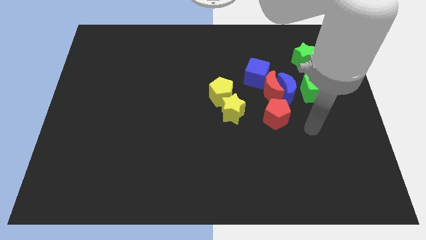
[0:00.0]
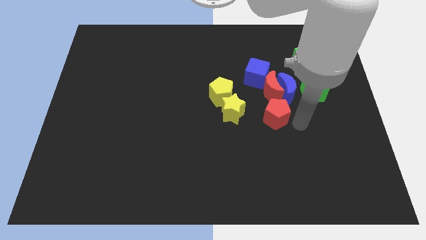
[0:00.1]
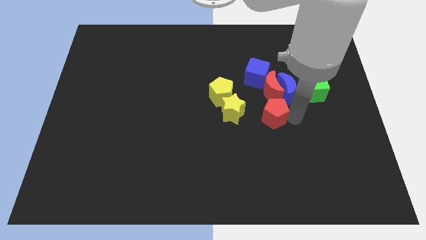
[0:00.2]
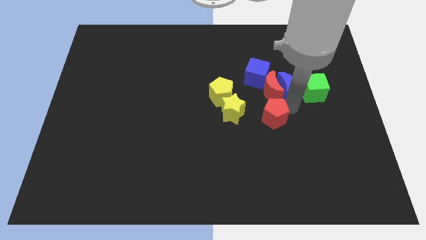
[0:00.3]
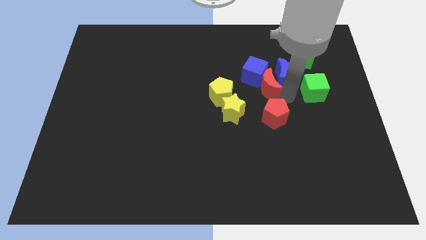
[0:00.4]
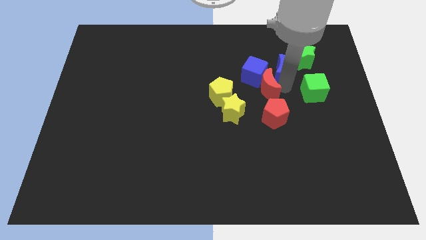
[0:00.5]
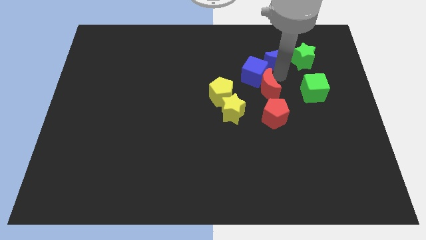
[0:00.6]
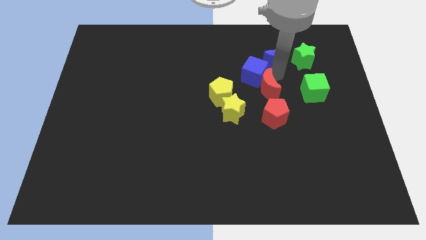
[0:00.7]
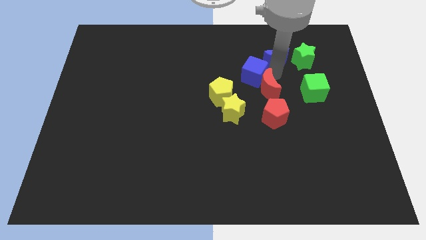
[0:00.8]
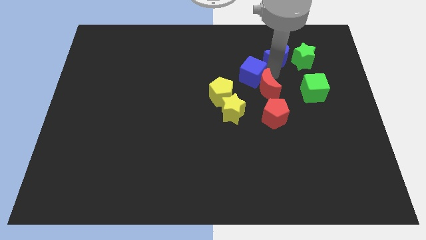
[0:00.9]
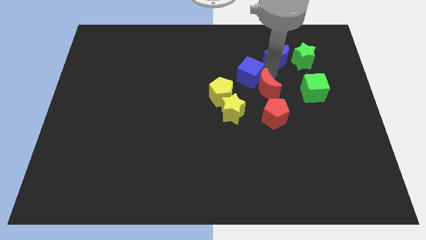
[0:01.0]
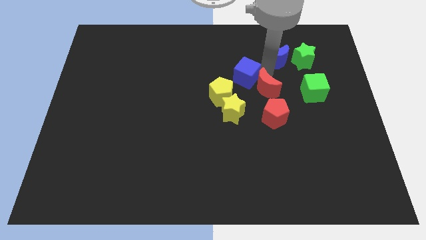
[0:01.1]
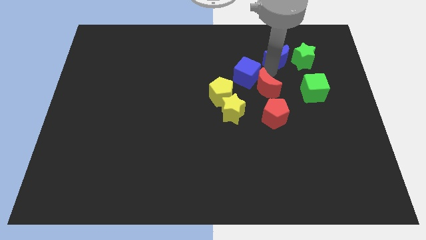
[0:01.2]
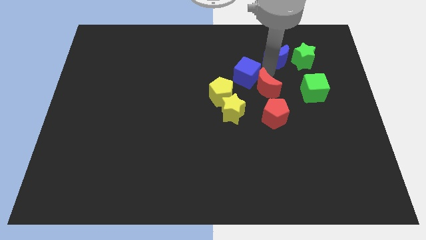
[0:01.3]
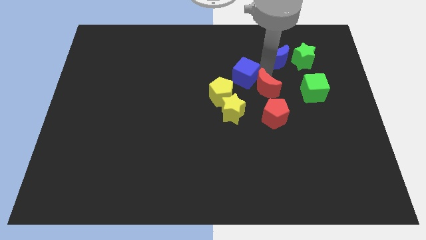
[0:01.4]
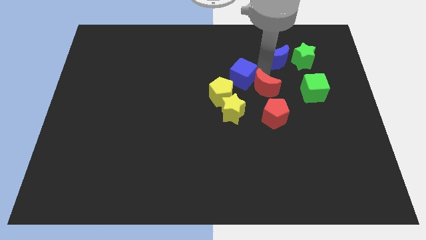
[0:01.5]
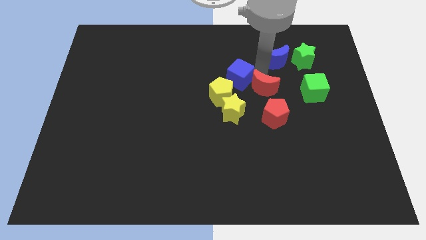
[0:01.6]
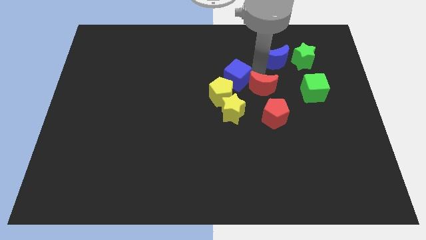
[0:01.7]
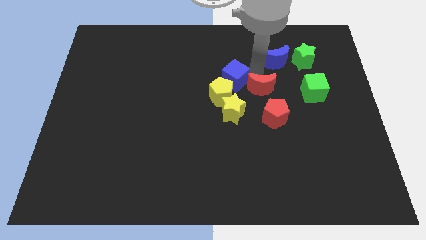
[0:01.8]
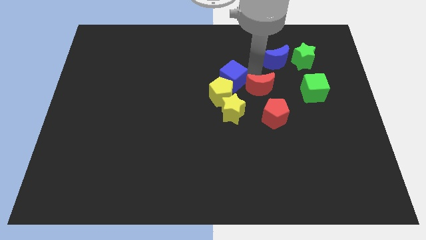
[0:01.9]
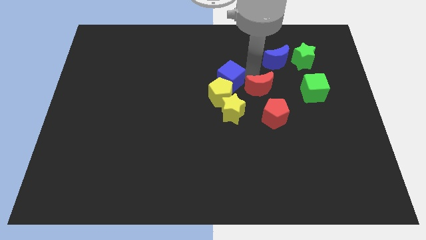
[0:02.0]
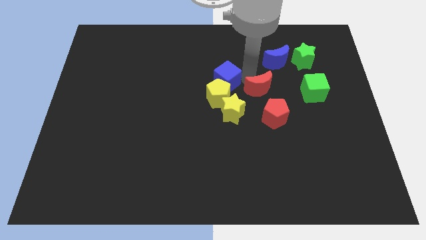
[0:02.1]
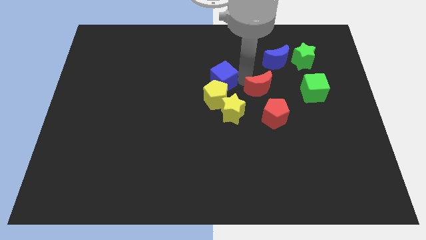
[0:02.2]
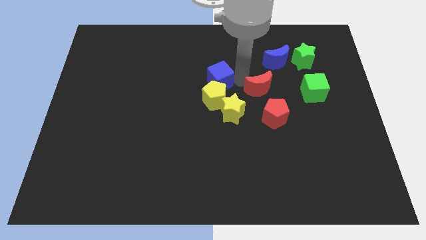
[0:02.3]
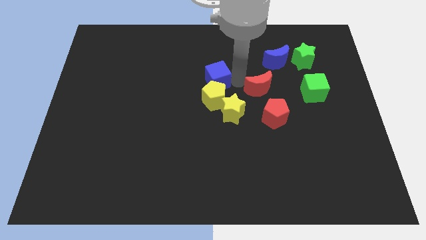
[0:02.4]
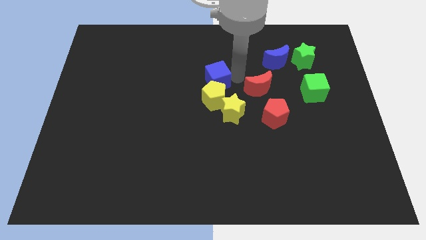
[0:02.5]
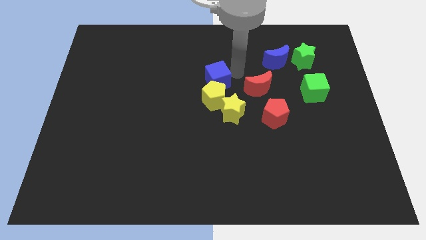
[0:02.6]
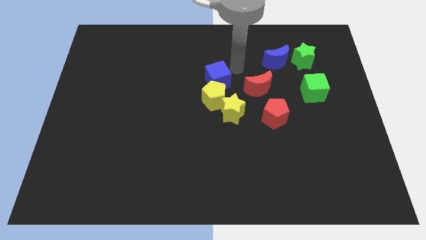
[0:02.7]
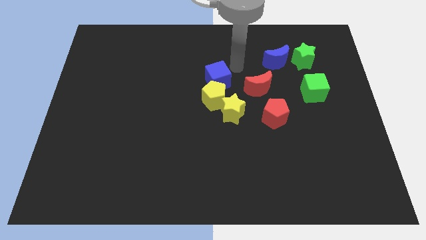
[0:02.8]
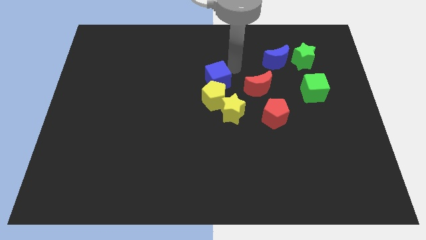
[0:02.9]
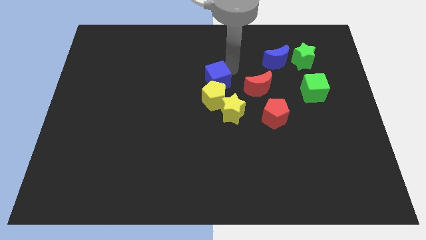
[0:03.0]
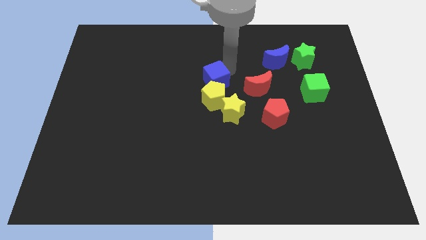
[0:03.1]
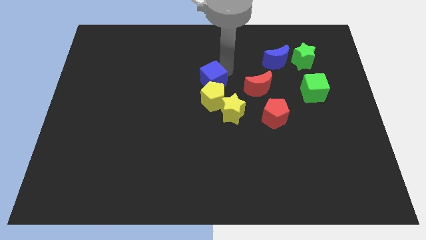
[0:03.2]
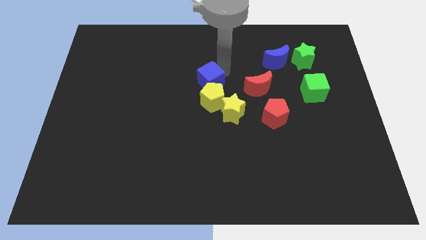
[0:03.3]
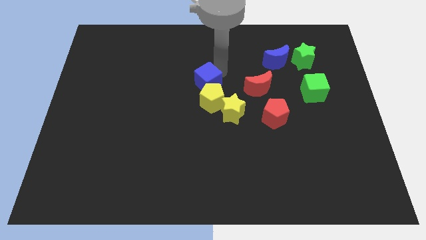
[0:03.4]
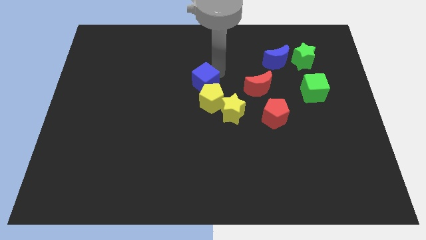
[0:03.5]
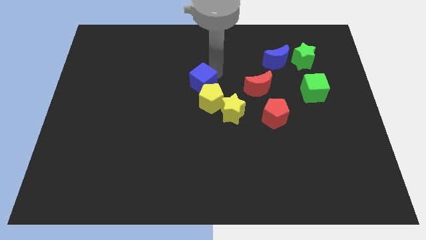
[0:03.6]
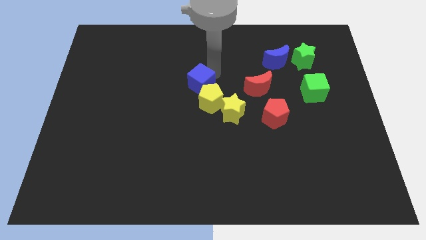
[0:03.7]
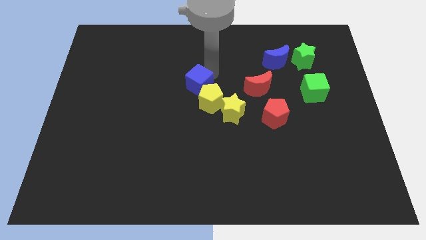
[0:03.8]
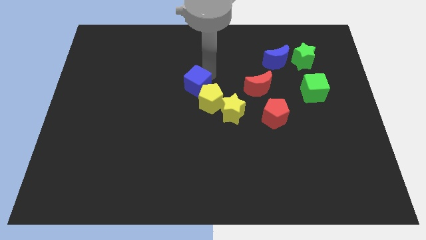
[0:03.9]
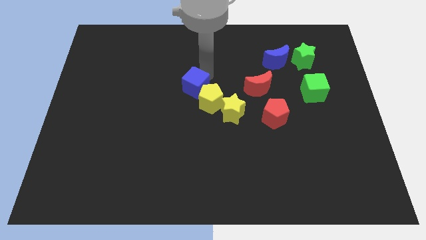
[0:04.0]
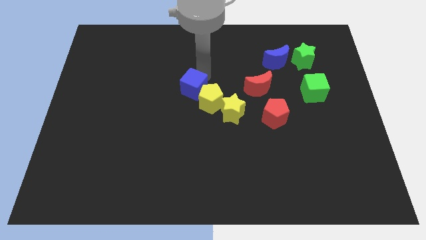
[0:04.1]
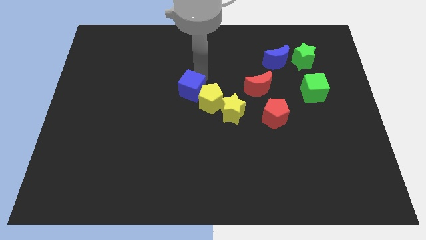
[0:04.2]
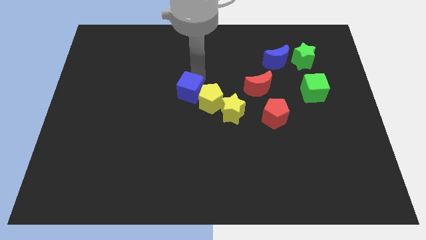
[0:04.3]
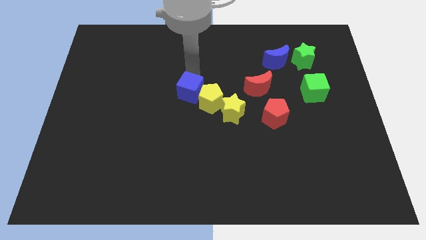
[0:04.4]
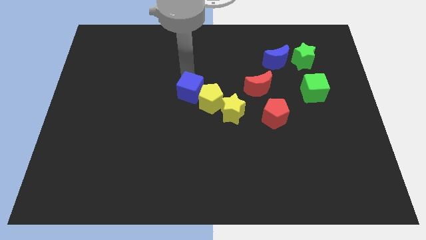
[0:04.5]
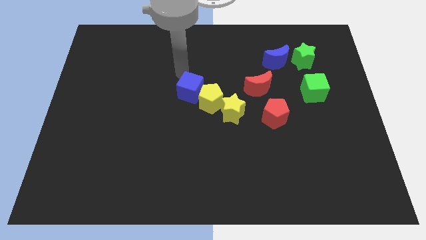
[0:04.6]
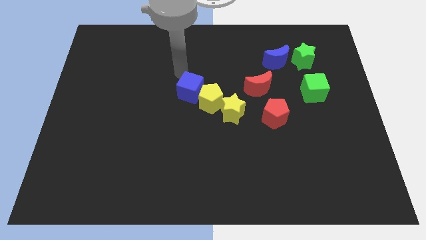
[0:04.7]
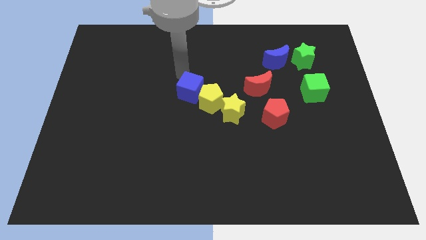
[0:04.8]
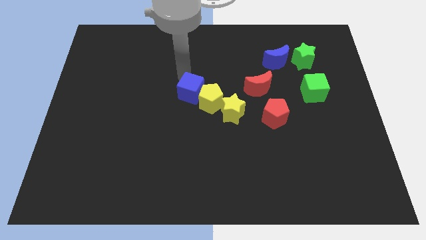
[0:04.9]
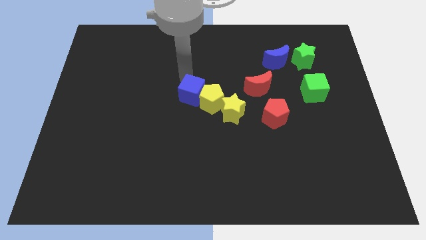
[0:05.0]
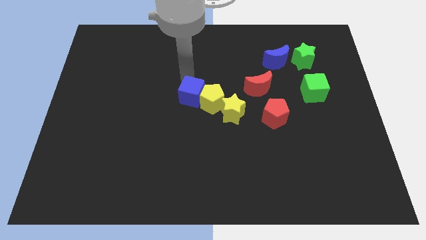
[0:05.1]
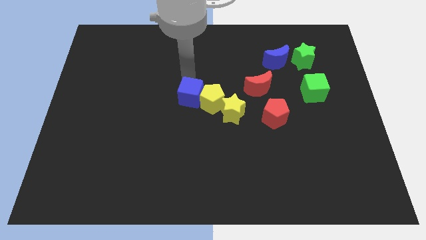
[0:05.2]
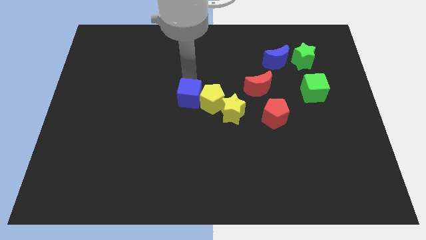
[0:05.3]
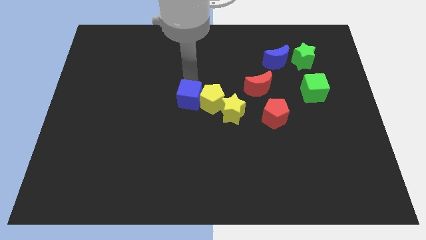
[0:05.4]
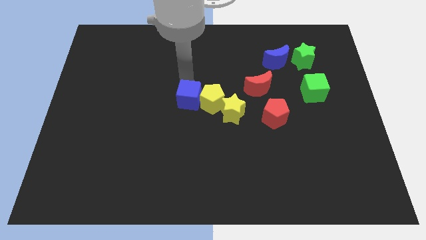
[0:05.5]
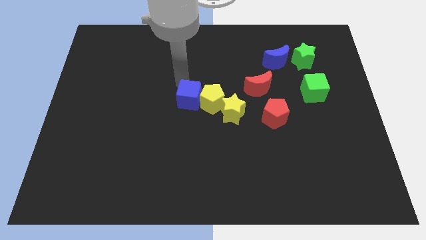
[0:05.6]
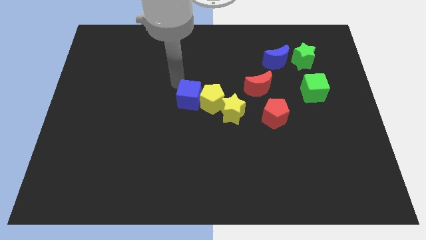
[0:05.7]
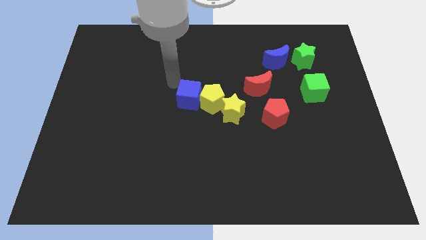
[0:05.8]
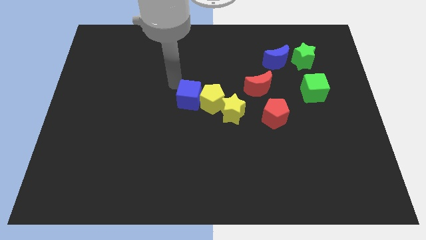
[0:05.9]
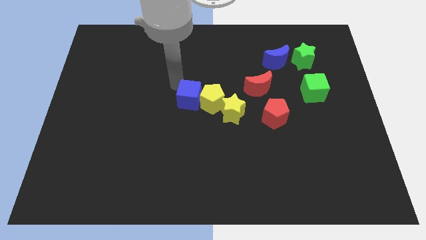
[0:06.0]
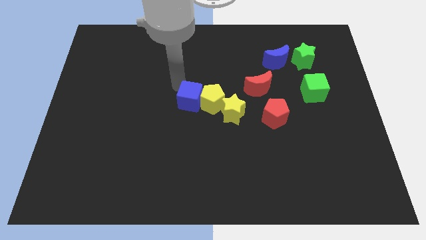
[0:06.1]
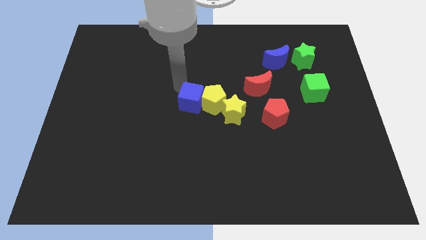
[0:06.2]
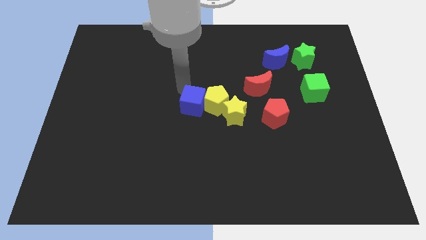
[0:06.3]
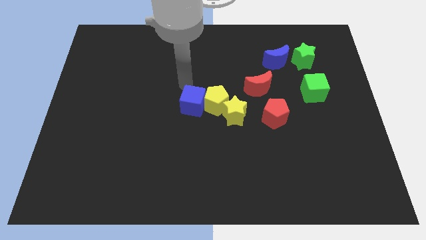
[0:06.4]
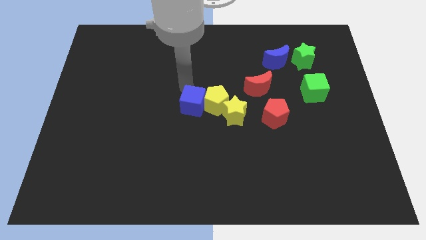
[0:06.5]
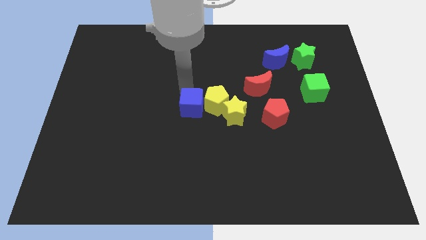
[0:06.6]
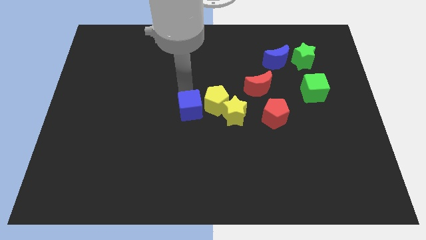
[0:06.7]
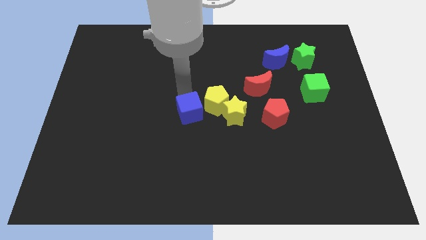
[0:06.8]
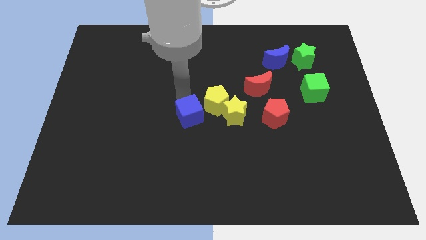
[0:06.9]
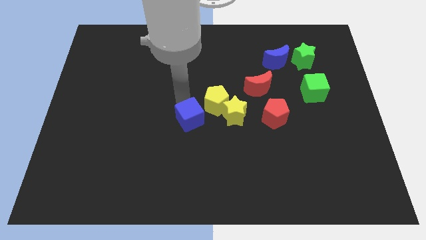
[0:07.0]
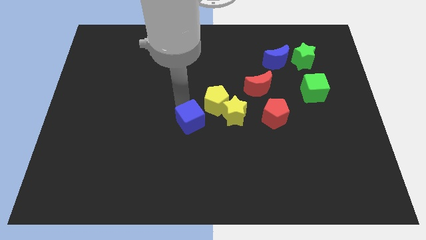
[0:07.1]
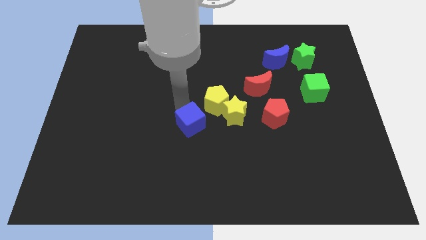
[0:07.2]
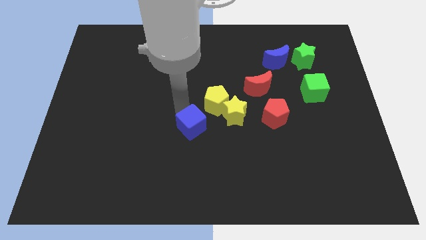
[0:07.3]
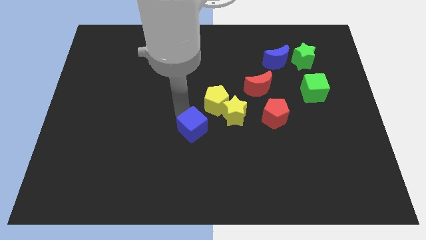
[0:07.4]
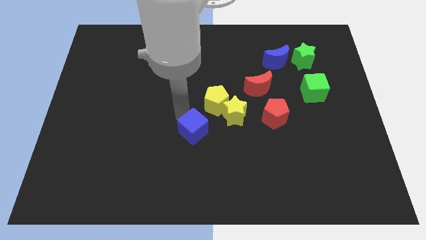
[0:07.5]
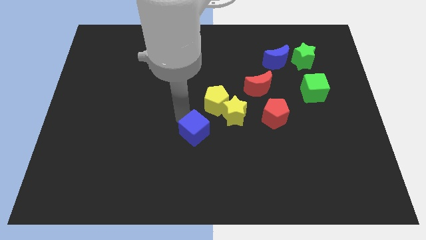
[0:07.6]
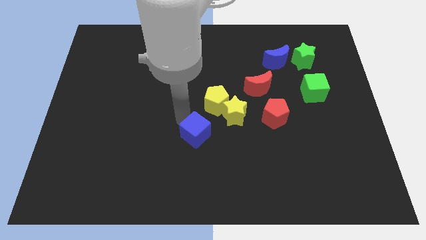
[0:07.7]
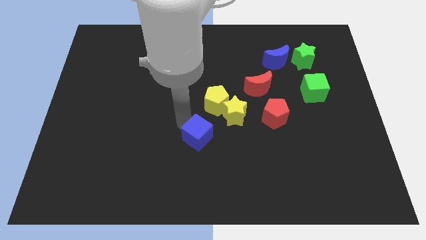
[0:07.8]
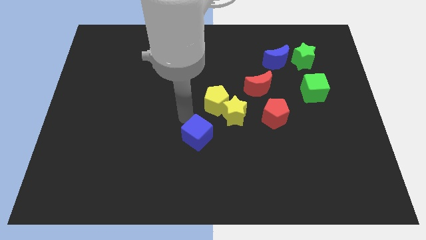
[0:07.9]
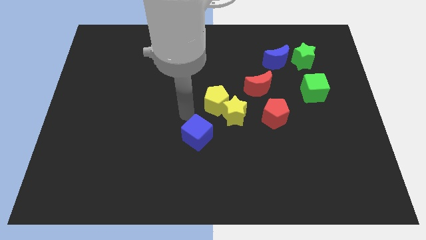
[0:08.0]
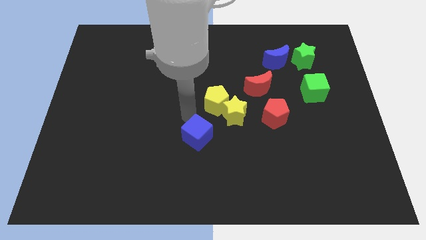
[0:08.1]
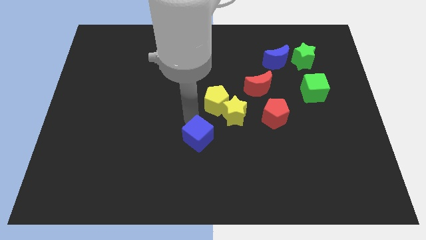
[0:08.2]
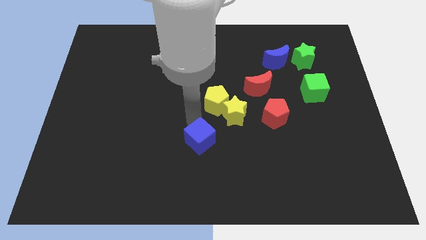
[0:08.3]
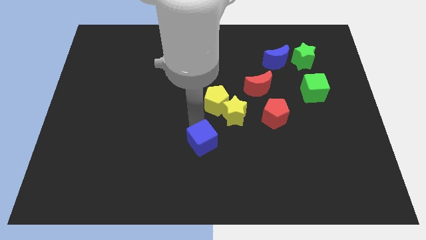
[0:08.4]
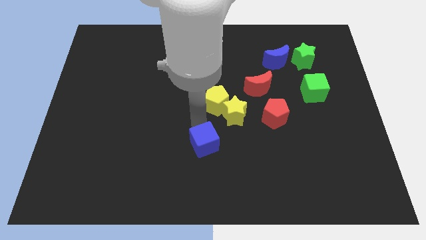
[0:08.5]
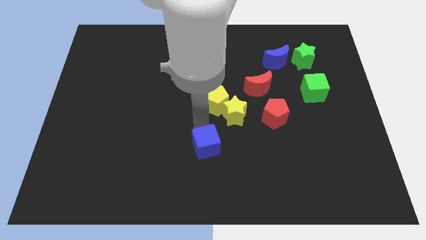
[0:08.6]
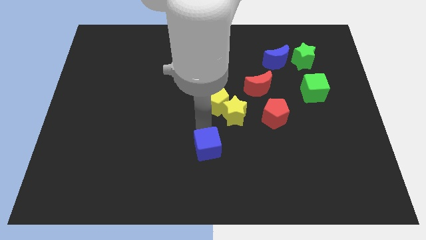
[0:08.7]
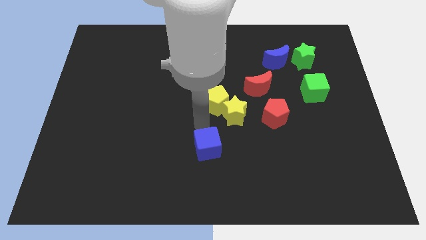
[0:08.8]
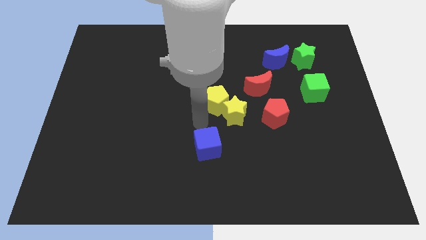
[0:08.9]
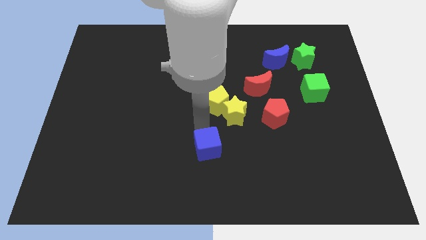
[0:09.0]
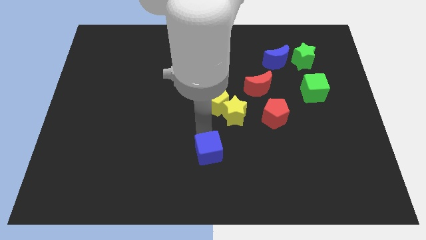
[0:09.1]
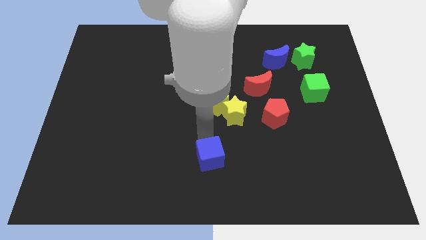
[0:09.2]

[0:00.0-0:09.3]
put the blue cube to the bottom
